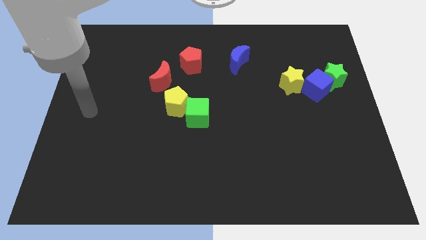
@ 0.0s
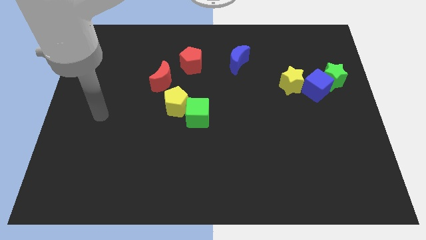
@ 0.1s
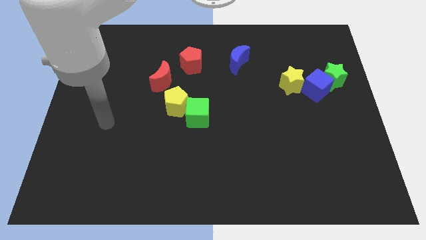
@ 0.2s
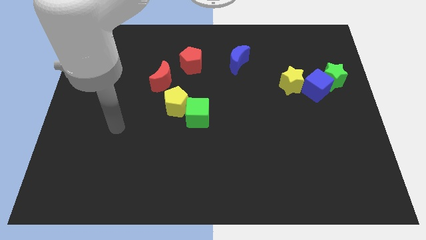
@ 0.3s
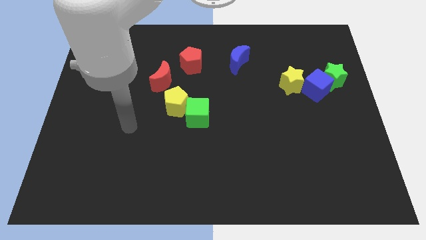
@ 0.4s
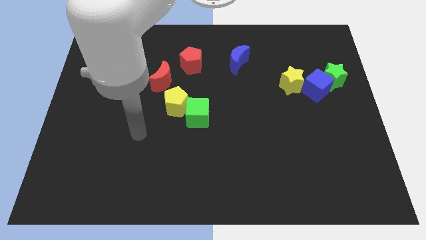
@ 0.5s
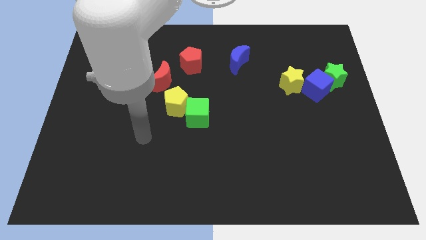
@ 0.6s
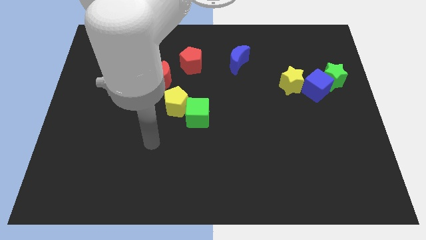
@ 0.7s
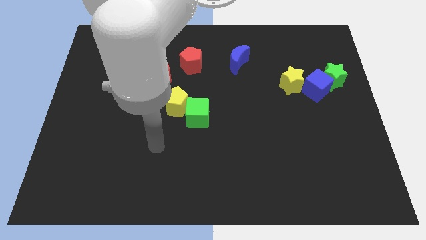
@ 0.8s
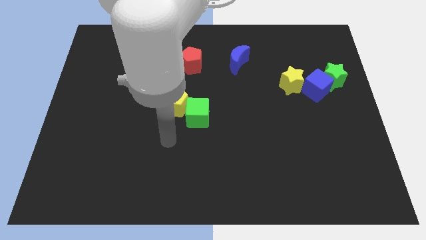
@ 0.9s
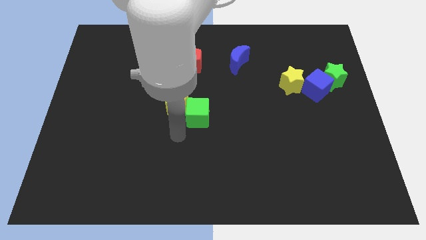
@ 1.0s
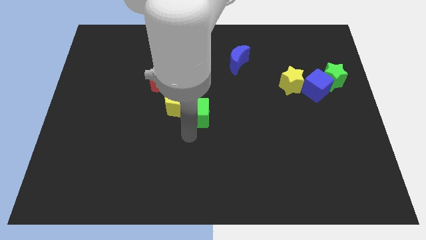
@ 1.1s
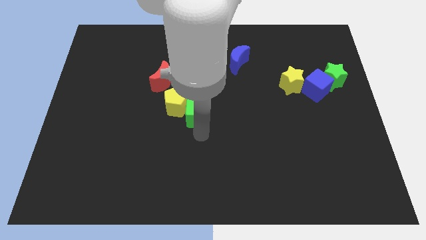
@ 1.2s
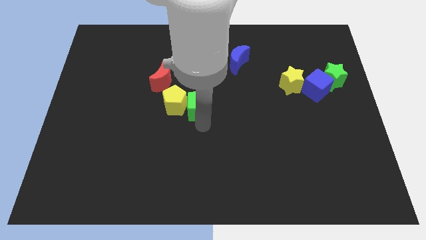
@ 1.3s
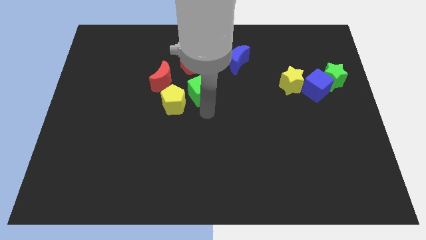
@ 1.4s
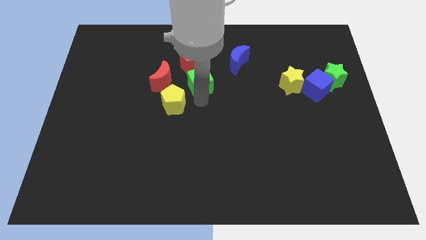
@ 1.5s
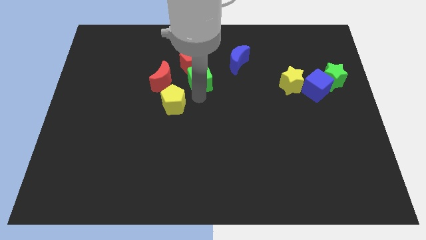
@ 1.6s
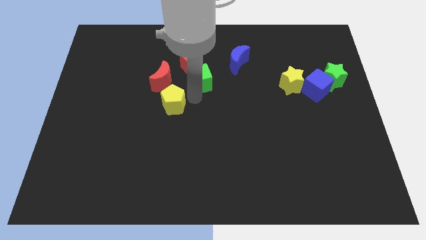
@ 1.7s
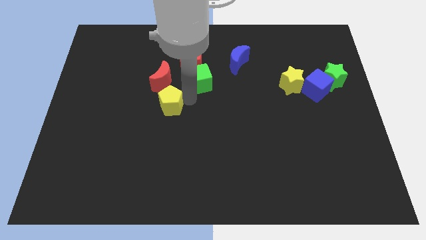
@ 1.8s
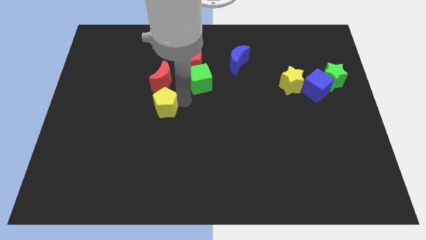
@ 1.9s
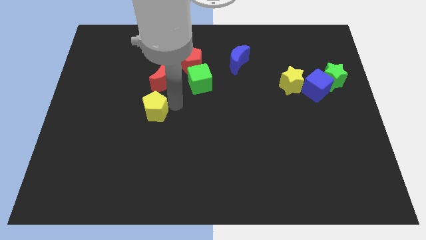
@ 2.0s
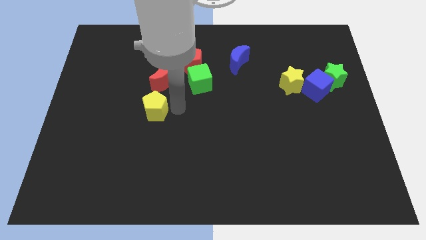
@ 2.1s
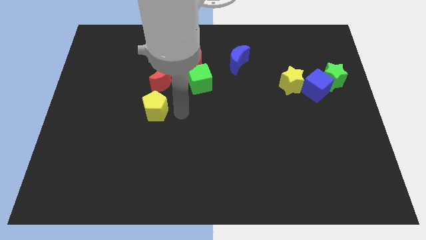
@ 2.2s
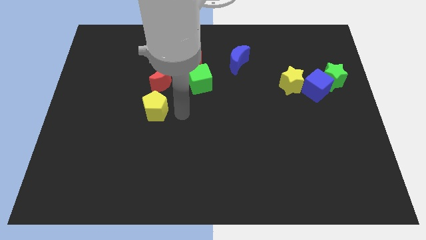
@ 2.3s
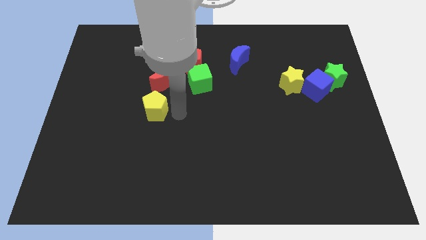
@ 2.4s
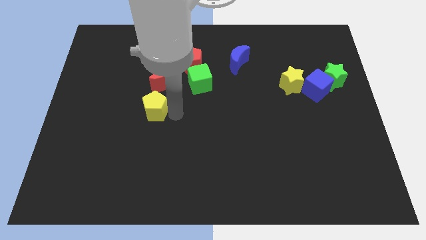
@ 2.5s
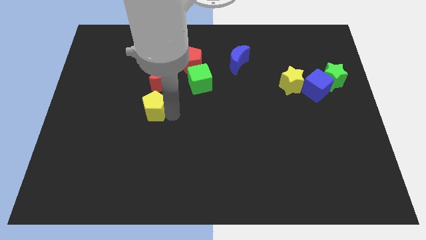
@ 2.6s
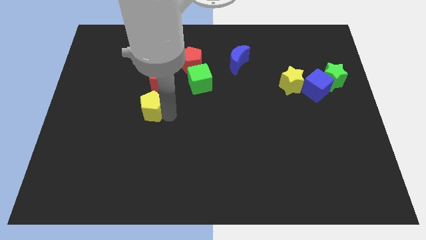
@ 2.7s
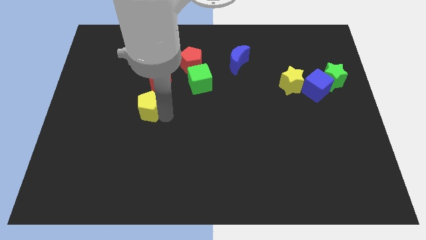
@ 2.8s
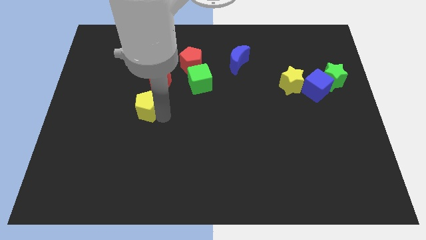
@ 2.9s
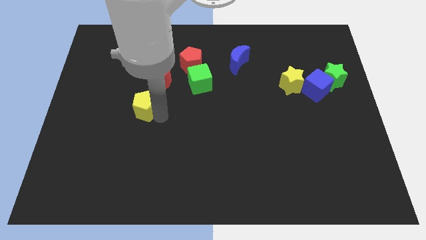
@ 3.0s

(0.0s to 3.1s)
push the yellow pentagon slightly to the left

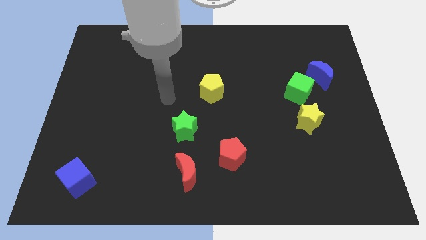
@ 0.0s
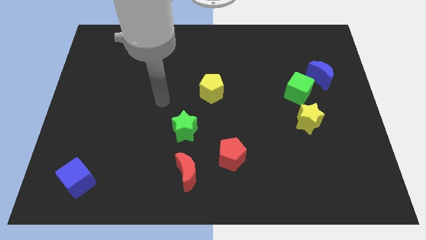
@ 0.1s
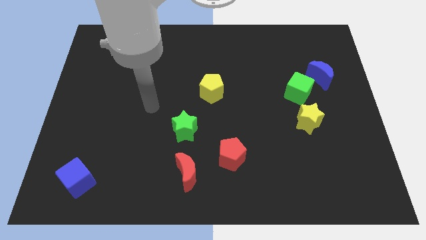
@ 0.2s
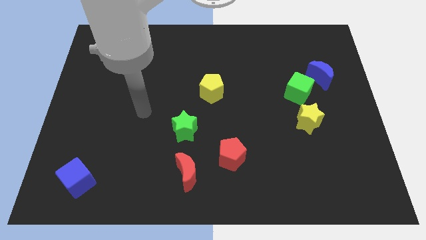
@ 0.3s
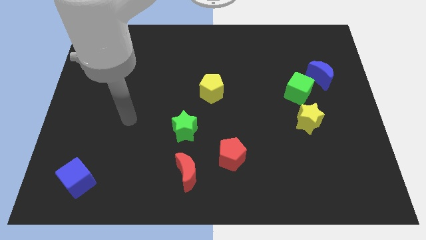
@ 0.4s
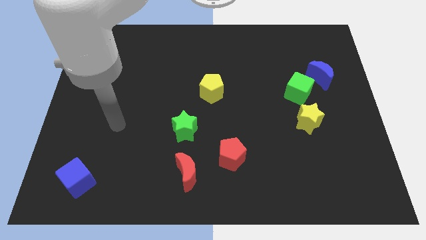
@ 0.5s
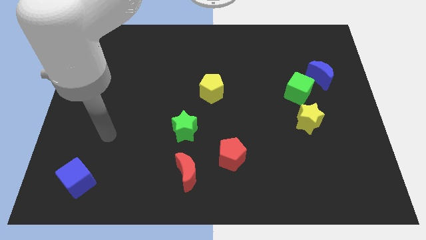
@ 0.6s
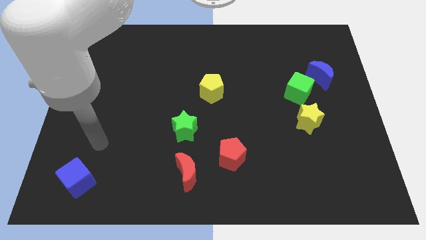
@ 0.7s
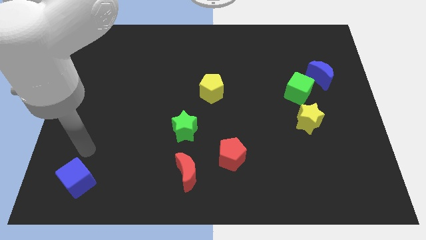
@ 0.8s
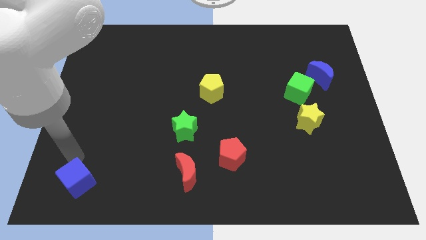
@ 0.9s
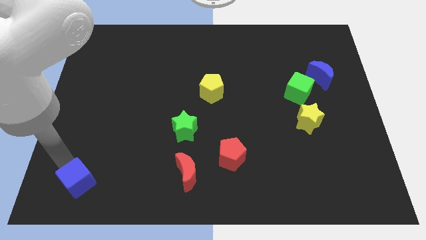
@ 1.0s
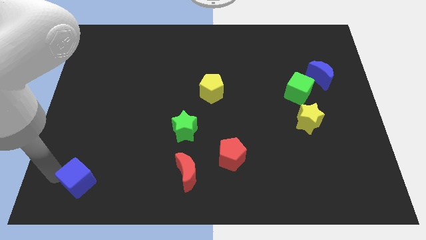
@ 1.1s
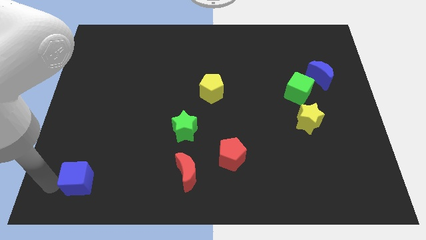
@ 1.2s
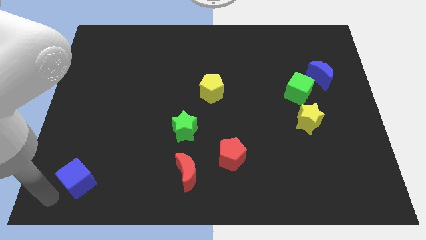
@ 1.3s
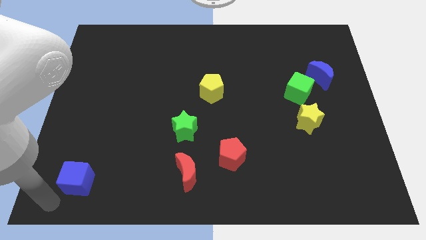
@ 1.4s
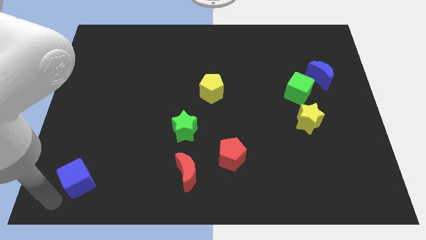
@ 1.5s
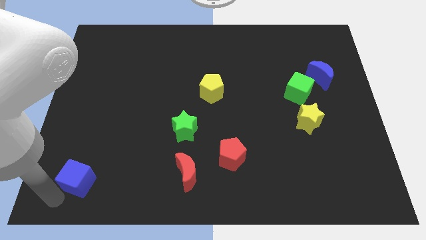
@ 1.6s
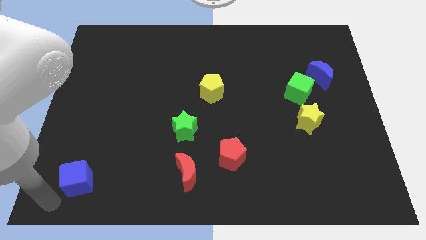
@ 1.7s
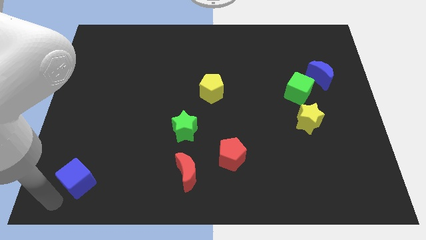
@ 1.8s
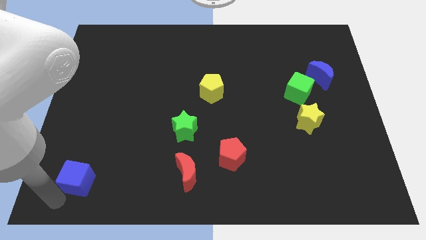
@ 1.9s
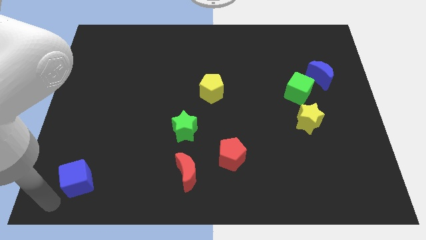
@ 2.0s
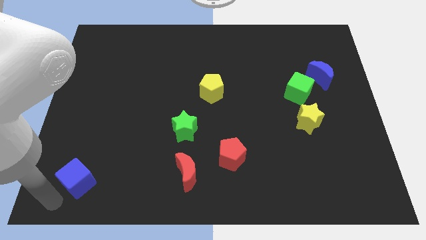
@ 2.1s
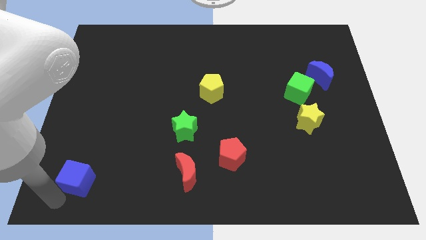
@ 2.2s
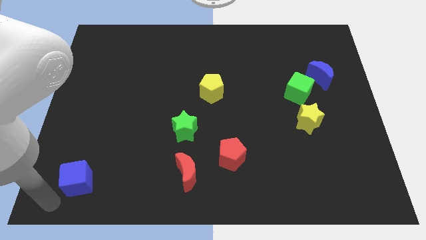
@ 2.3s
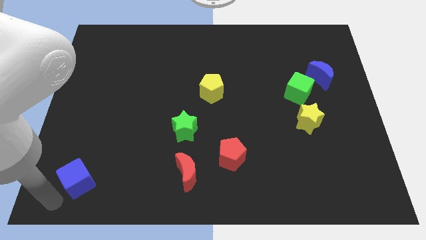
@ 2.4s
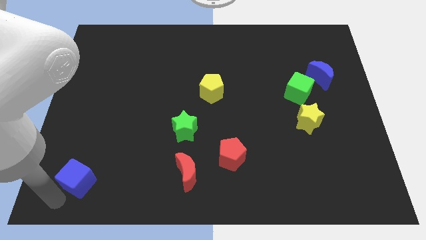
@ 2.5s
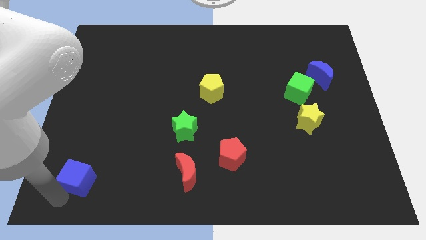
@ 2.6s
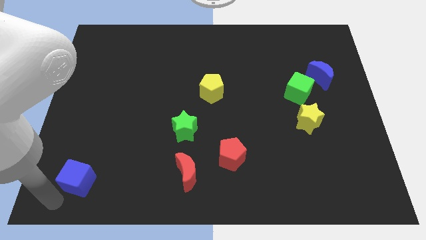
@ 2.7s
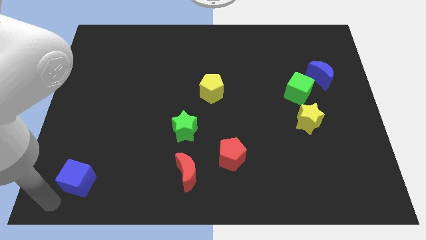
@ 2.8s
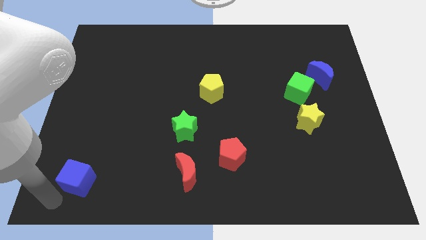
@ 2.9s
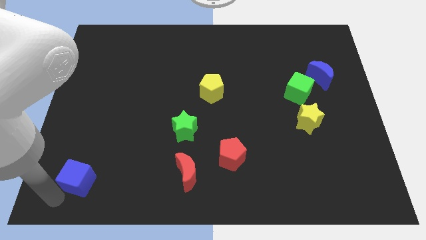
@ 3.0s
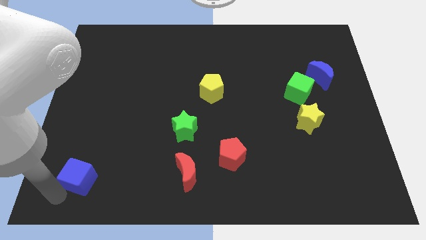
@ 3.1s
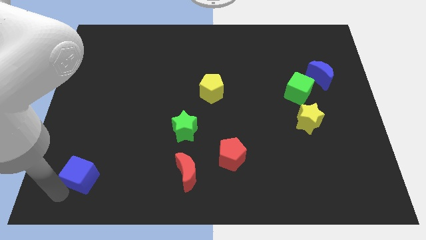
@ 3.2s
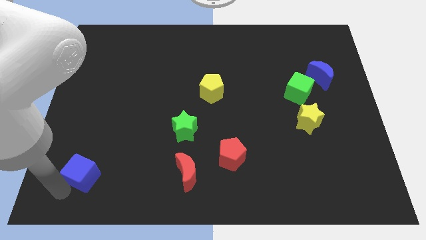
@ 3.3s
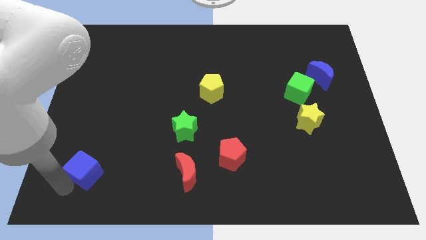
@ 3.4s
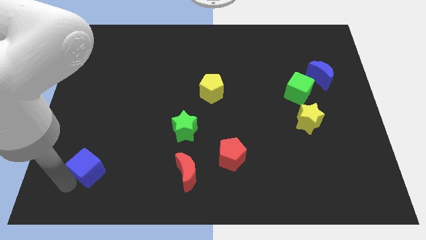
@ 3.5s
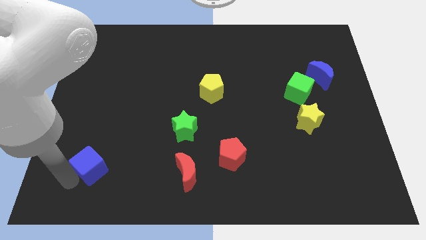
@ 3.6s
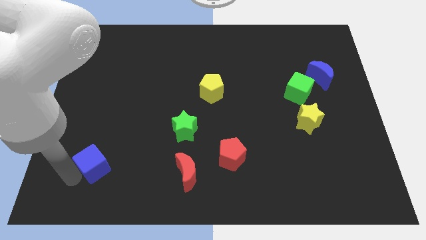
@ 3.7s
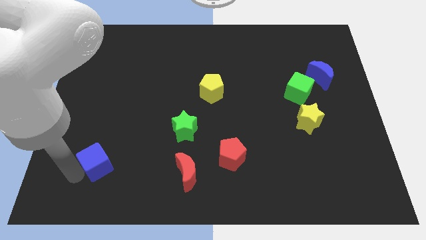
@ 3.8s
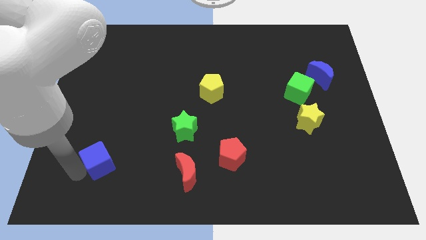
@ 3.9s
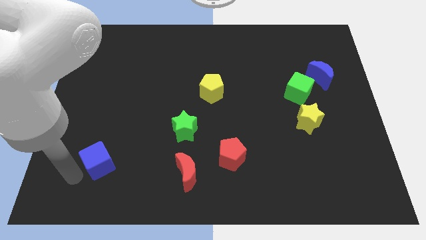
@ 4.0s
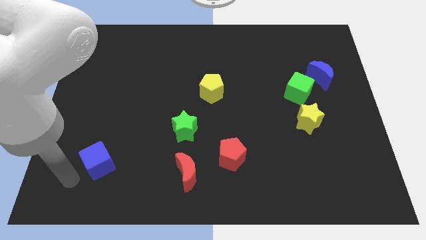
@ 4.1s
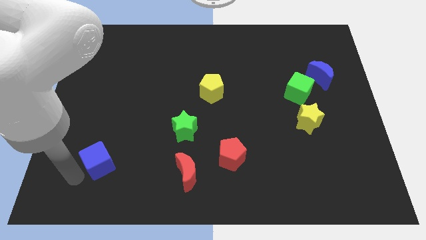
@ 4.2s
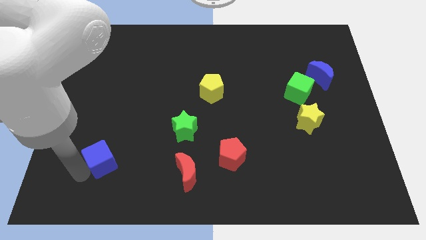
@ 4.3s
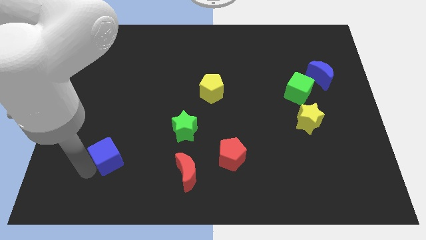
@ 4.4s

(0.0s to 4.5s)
slightly move the blue cube upwards and right diagonally

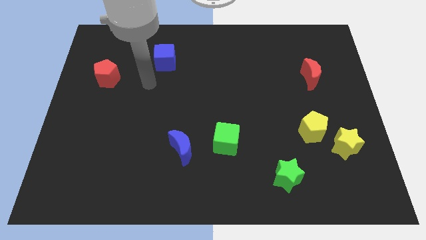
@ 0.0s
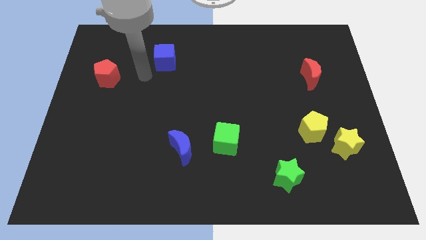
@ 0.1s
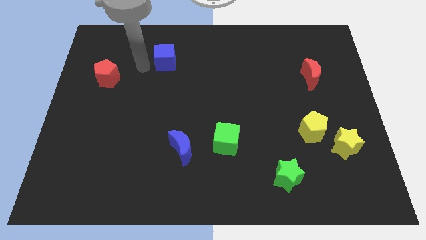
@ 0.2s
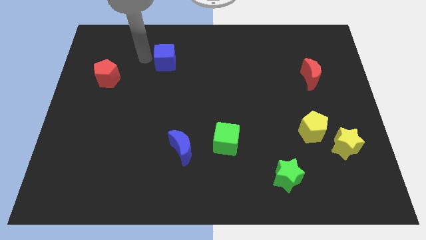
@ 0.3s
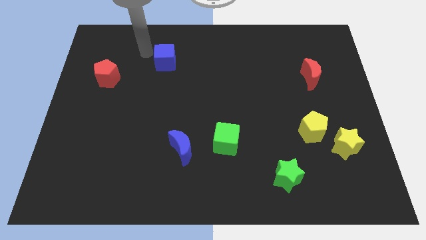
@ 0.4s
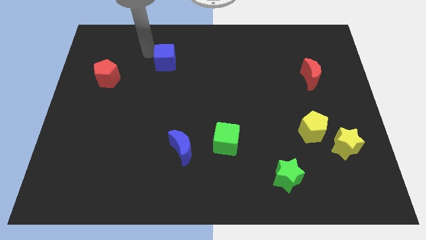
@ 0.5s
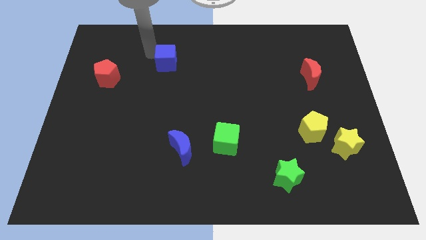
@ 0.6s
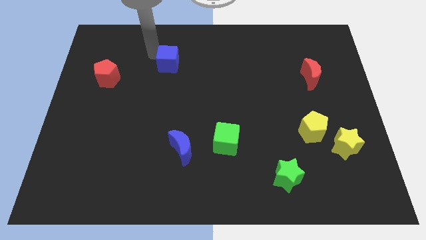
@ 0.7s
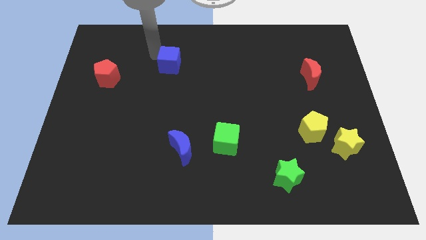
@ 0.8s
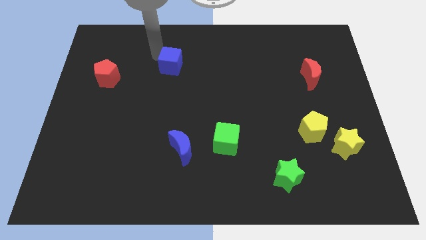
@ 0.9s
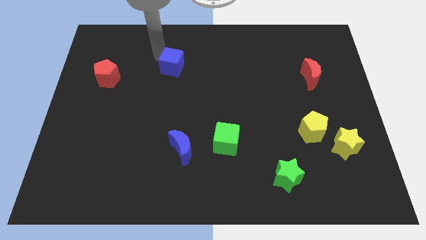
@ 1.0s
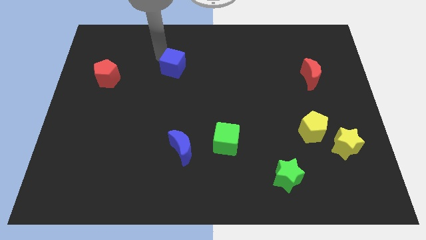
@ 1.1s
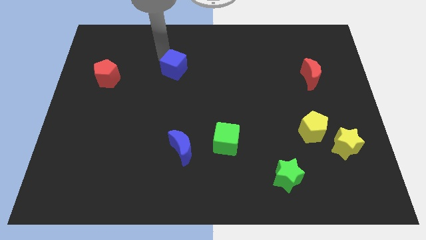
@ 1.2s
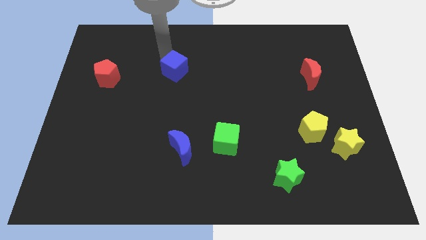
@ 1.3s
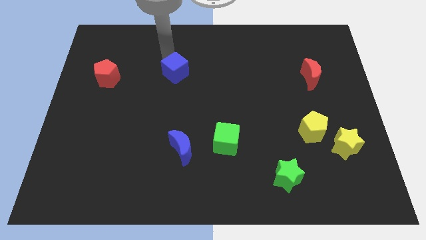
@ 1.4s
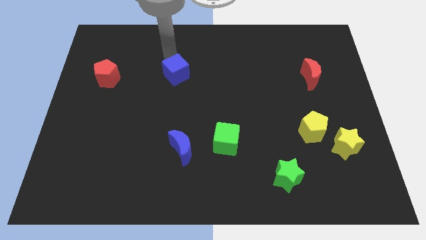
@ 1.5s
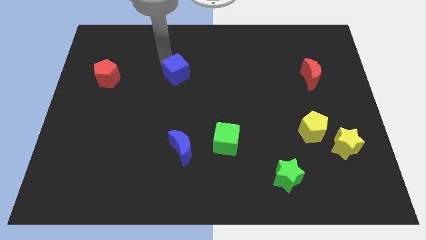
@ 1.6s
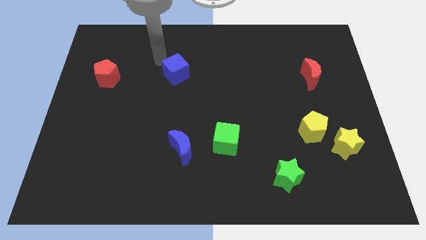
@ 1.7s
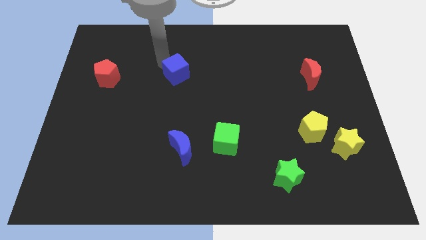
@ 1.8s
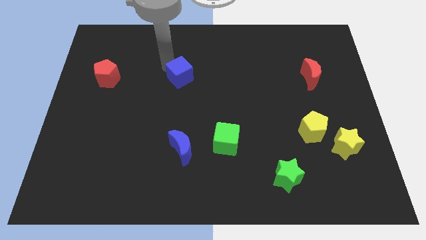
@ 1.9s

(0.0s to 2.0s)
slide the blue cube slightly diagonally downwards and to the right
